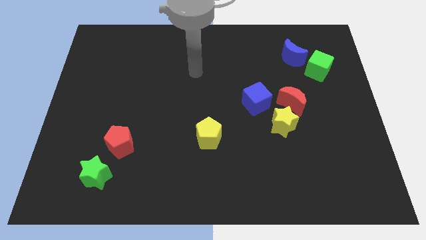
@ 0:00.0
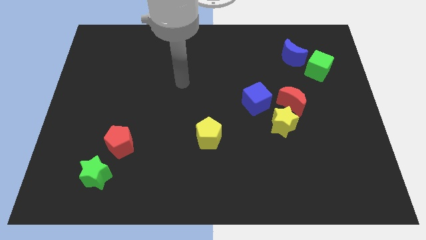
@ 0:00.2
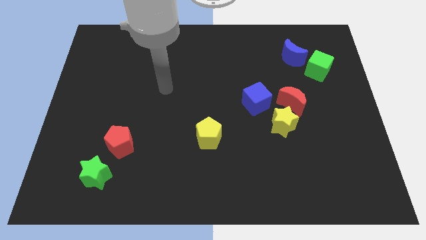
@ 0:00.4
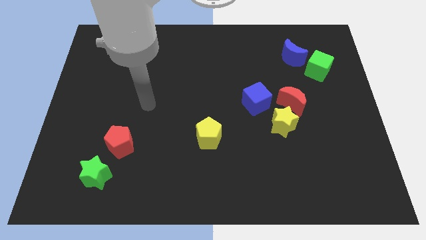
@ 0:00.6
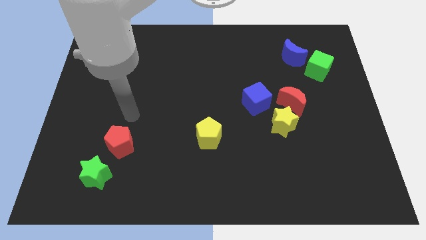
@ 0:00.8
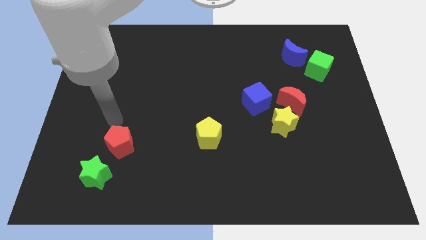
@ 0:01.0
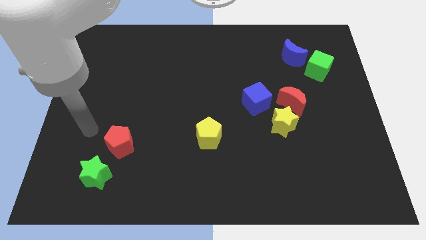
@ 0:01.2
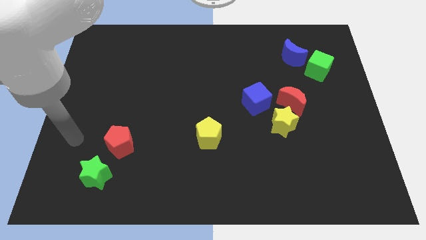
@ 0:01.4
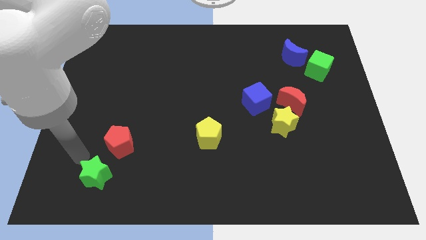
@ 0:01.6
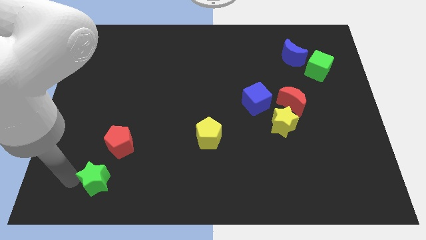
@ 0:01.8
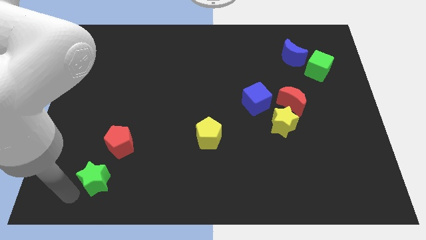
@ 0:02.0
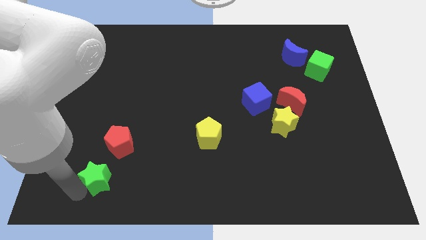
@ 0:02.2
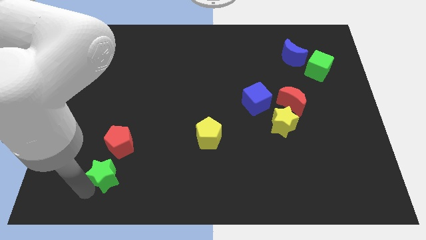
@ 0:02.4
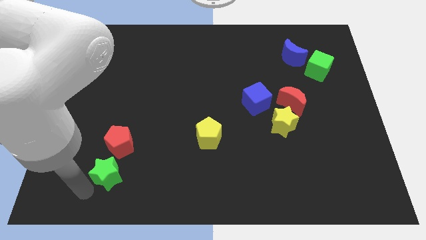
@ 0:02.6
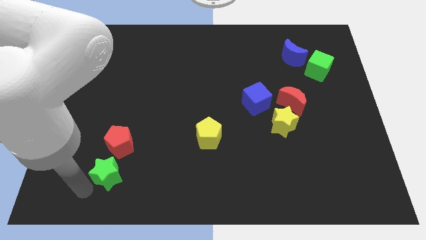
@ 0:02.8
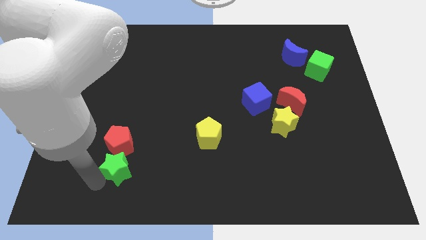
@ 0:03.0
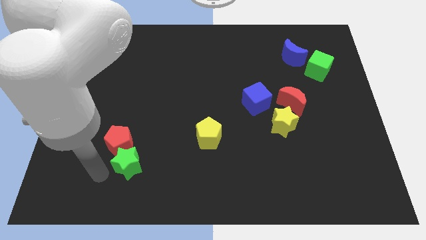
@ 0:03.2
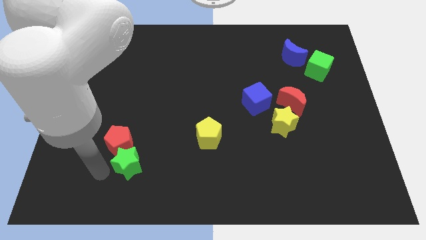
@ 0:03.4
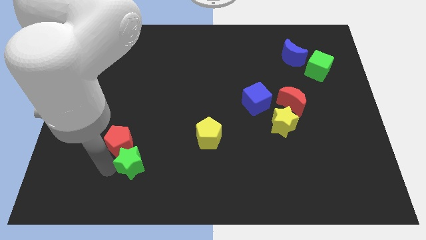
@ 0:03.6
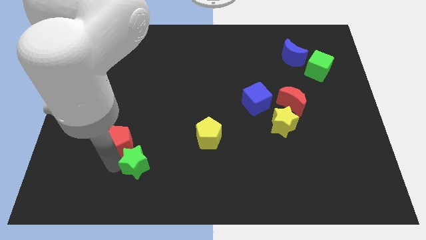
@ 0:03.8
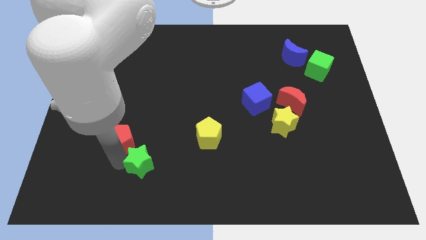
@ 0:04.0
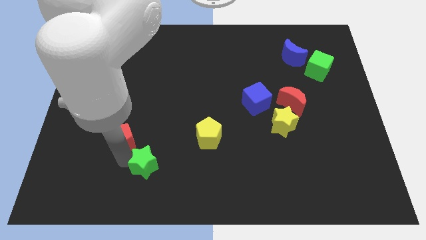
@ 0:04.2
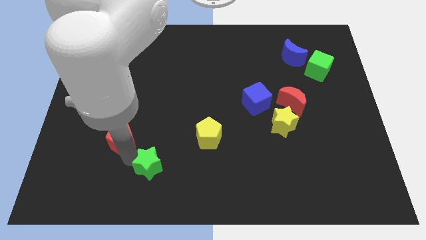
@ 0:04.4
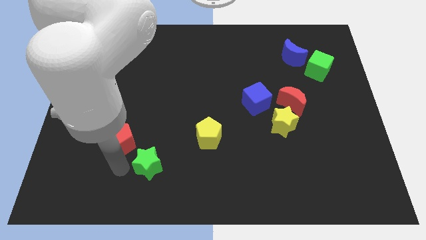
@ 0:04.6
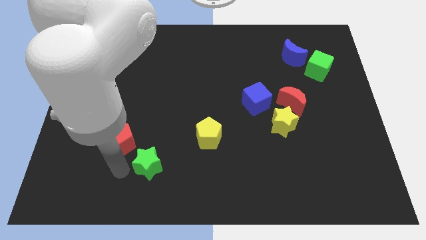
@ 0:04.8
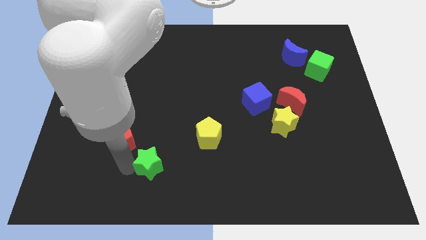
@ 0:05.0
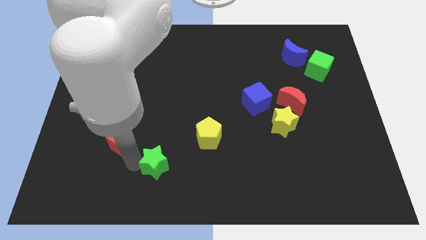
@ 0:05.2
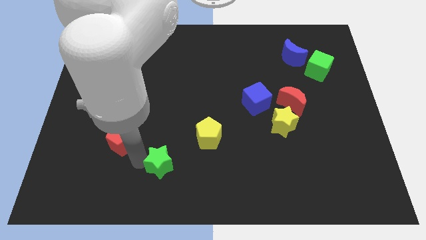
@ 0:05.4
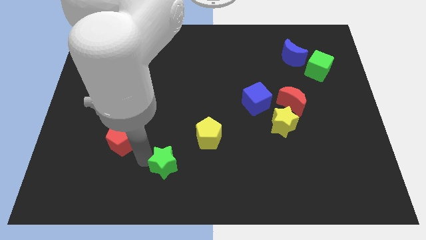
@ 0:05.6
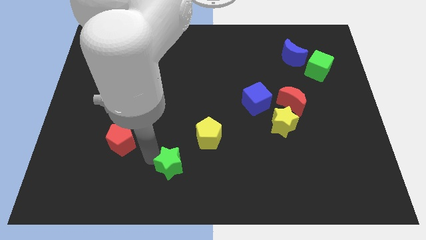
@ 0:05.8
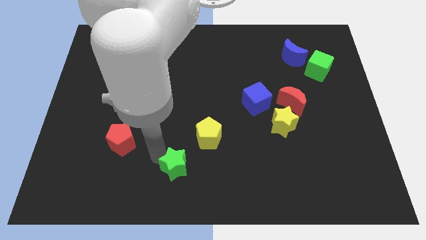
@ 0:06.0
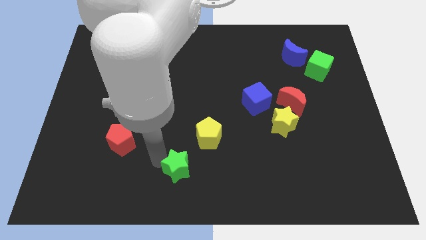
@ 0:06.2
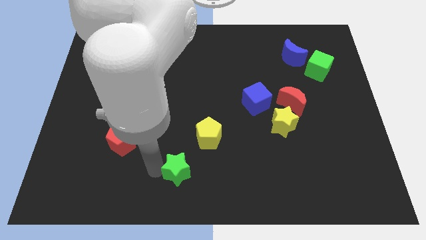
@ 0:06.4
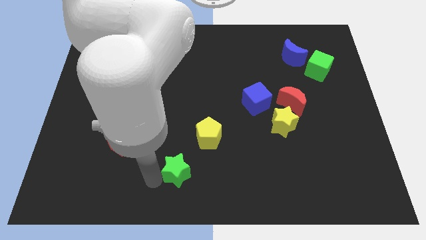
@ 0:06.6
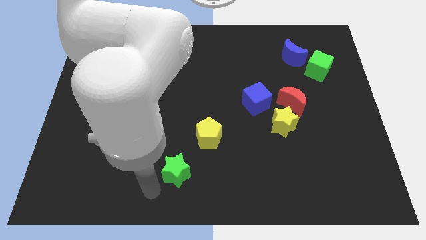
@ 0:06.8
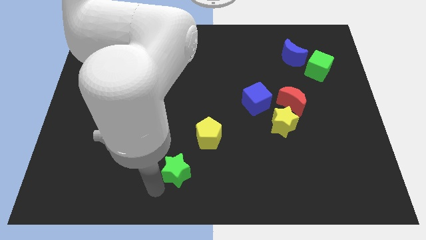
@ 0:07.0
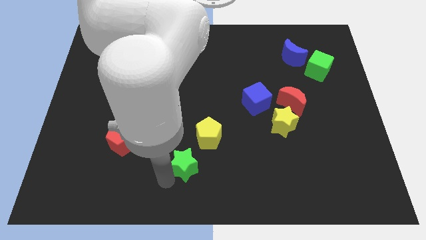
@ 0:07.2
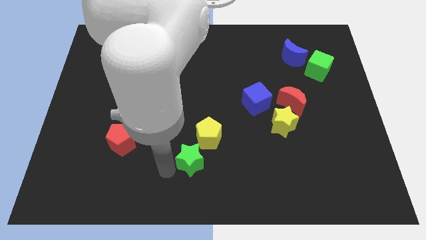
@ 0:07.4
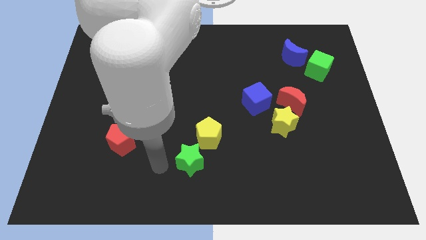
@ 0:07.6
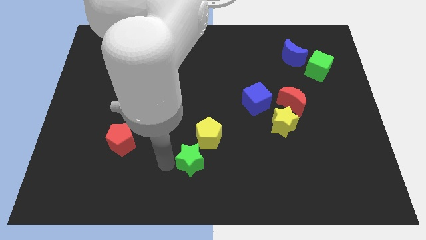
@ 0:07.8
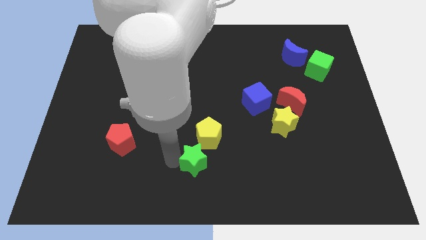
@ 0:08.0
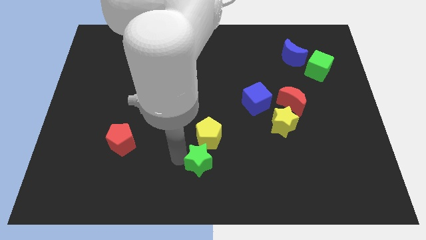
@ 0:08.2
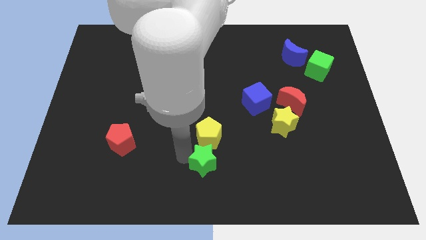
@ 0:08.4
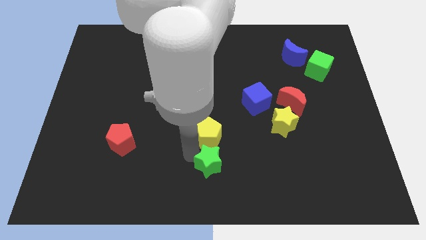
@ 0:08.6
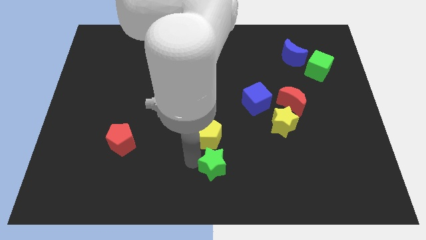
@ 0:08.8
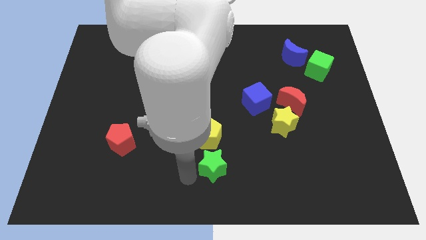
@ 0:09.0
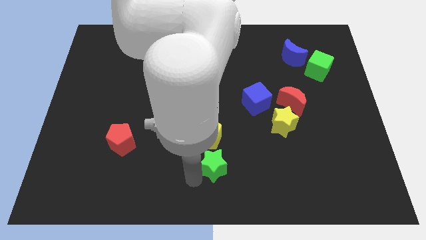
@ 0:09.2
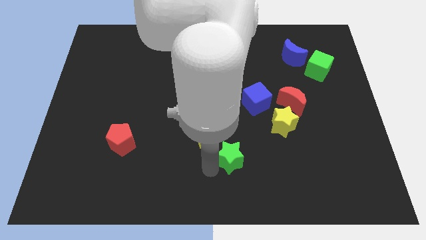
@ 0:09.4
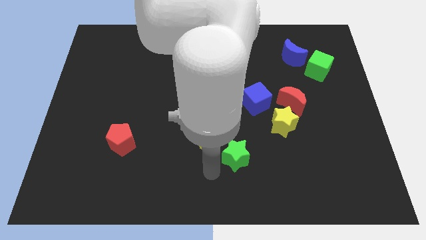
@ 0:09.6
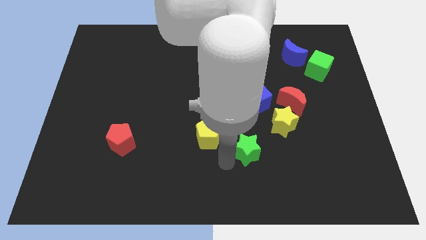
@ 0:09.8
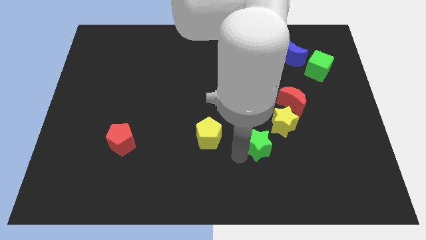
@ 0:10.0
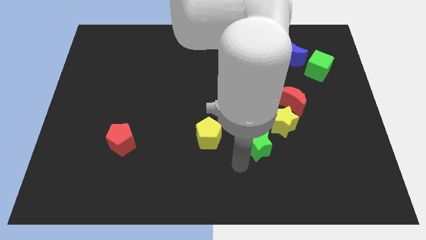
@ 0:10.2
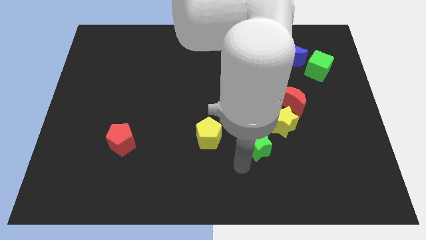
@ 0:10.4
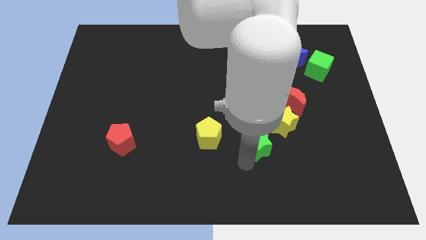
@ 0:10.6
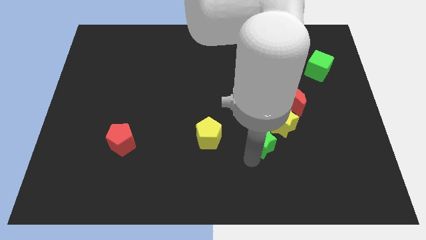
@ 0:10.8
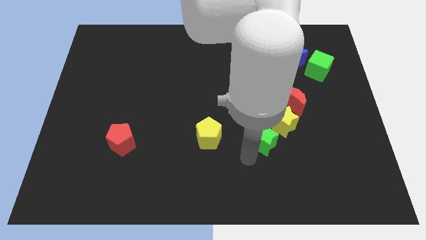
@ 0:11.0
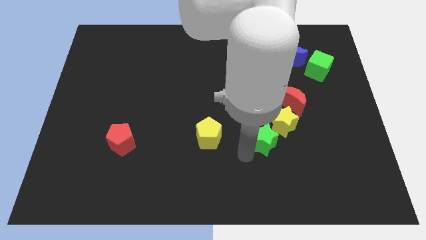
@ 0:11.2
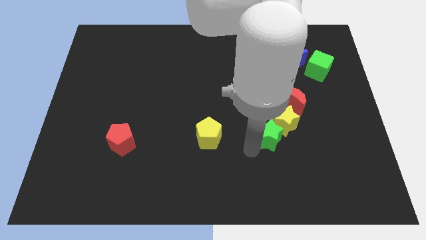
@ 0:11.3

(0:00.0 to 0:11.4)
move the green star close to the yellow star
